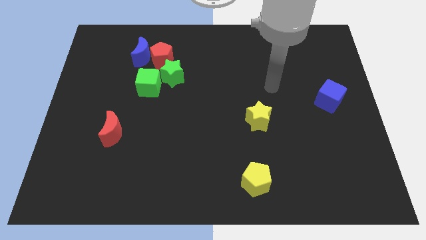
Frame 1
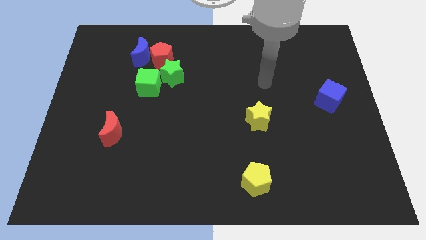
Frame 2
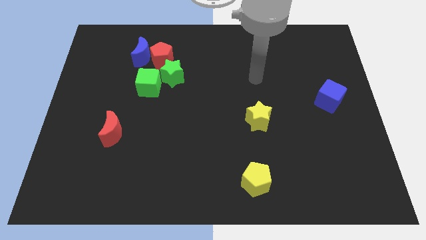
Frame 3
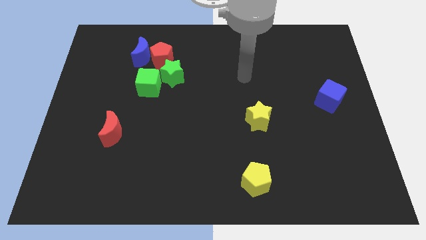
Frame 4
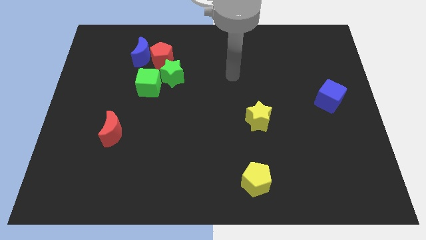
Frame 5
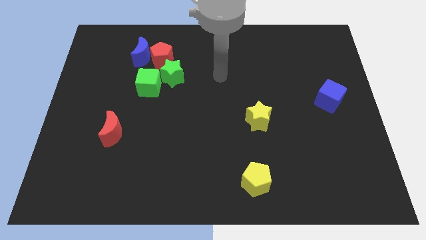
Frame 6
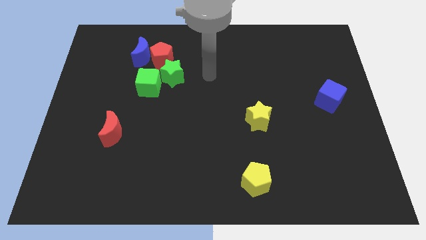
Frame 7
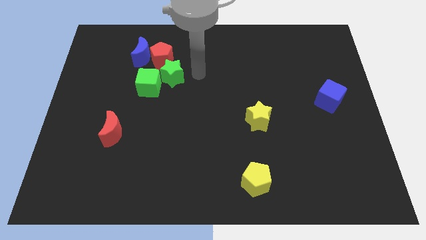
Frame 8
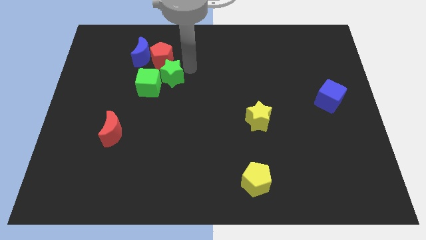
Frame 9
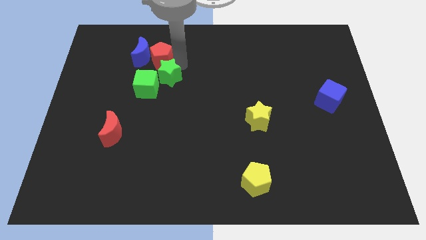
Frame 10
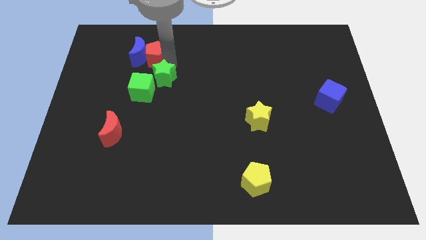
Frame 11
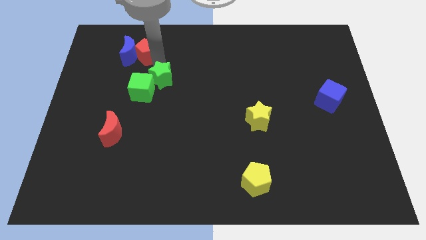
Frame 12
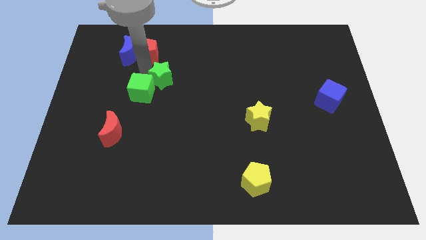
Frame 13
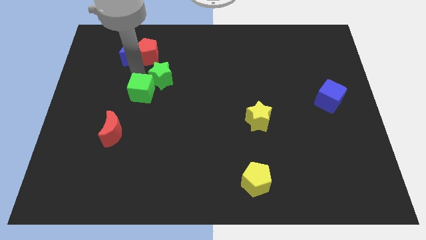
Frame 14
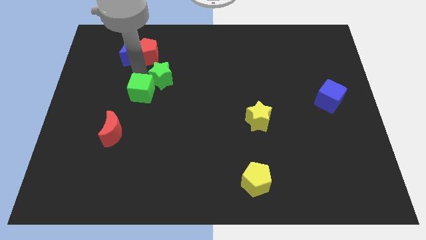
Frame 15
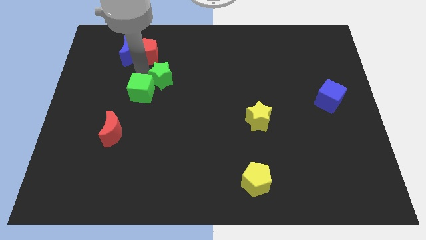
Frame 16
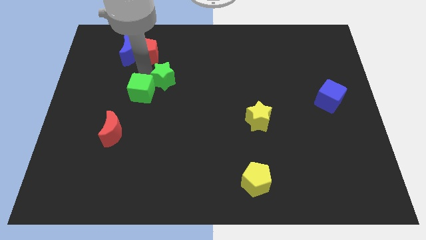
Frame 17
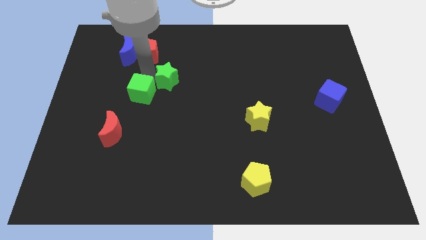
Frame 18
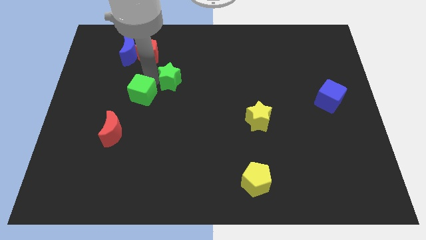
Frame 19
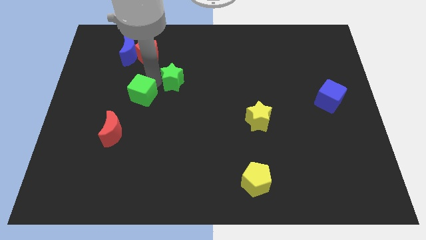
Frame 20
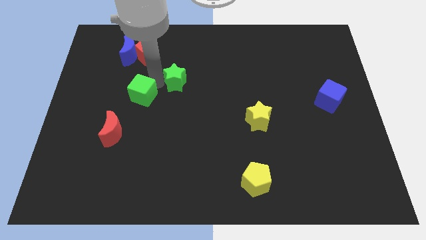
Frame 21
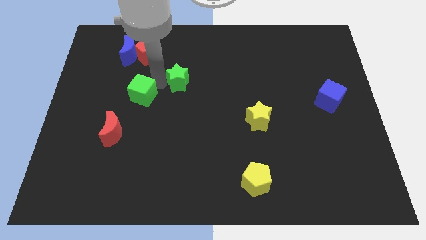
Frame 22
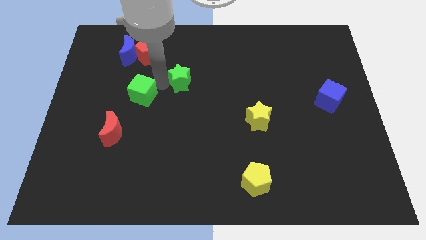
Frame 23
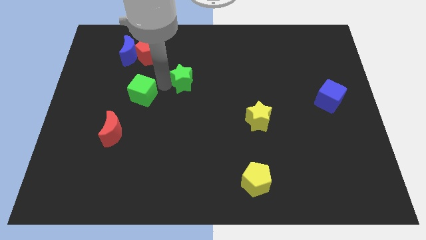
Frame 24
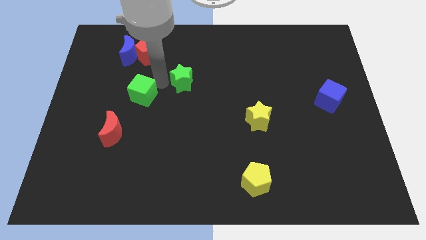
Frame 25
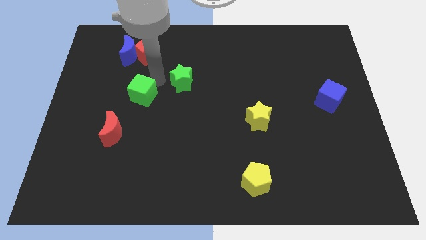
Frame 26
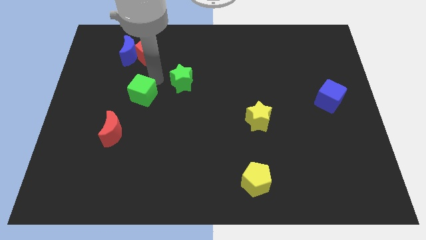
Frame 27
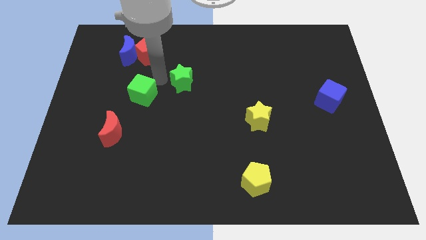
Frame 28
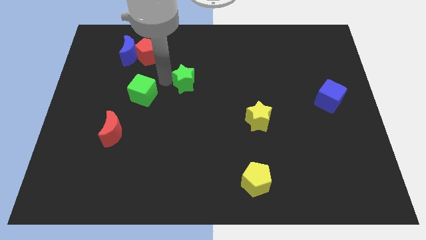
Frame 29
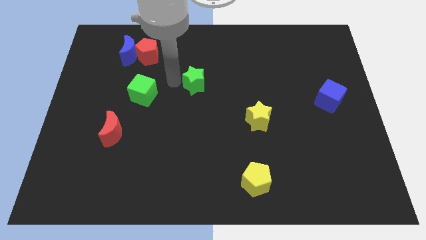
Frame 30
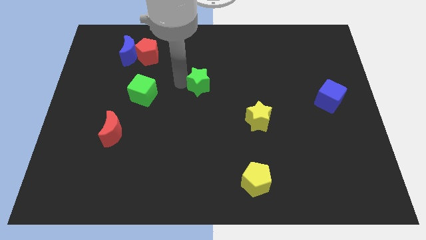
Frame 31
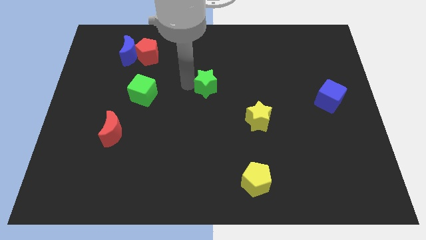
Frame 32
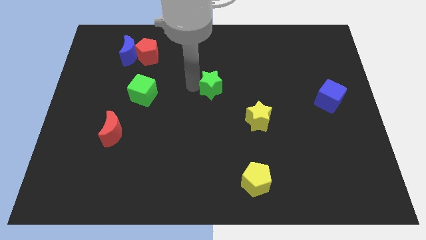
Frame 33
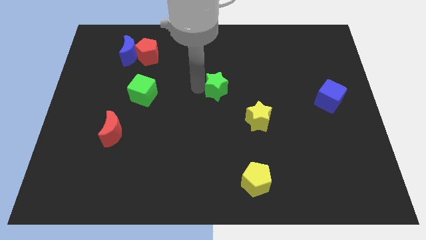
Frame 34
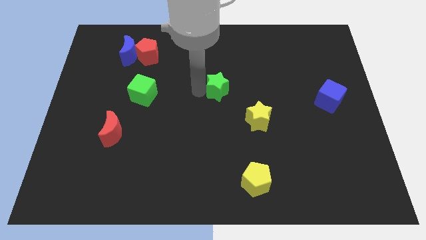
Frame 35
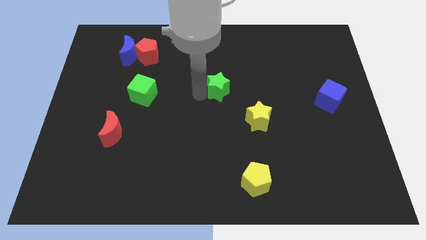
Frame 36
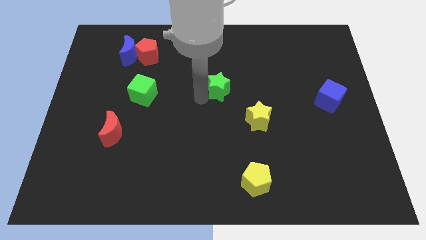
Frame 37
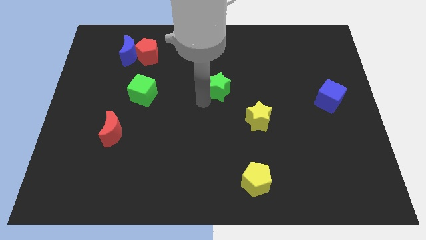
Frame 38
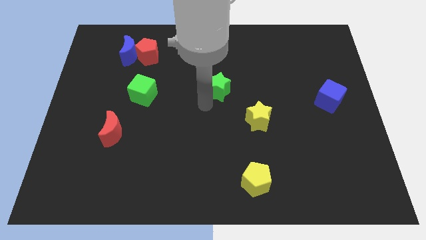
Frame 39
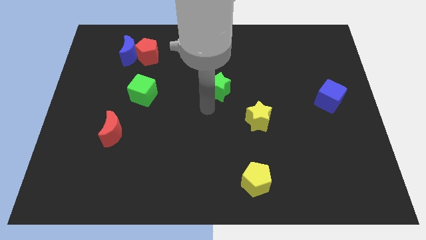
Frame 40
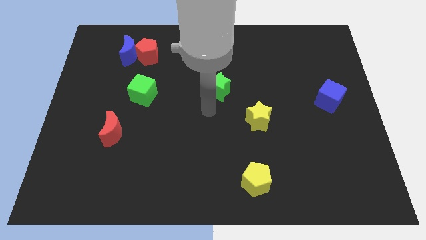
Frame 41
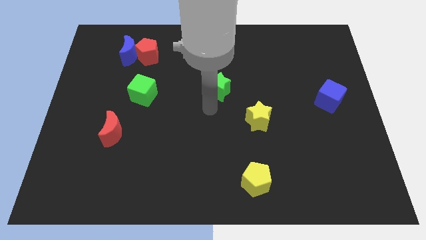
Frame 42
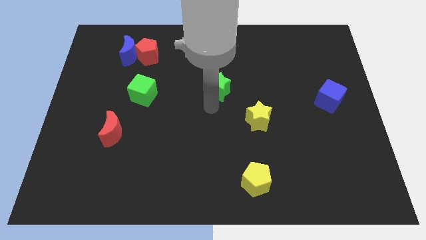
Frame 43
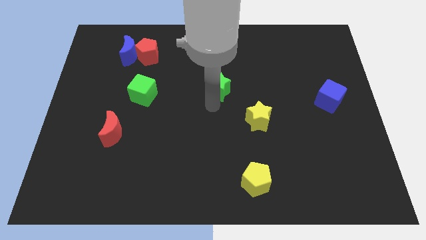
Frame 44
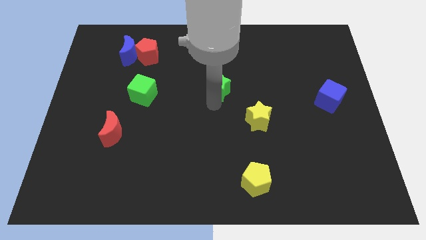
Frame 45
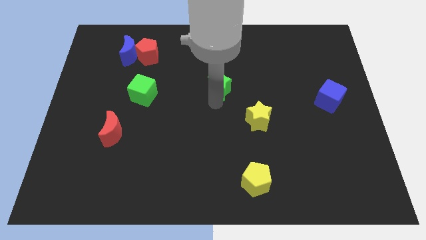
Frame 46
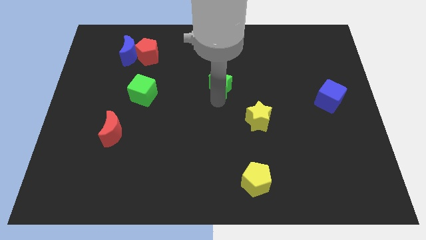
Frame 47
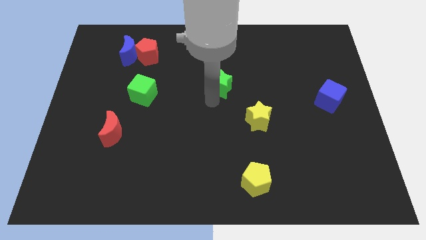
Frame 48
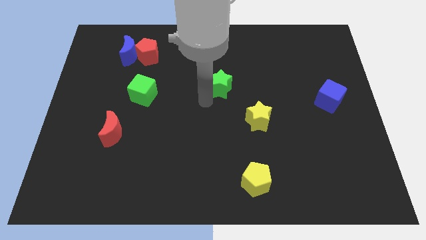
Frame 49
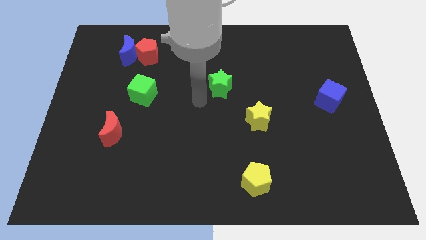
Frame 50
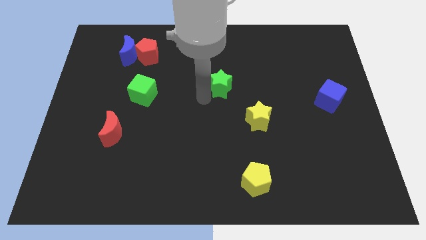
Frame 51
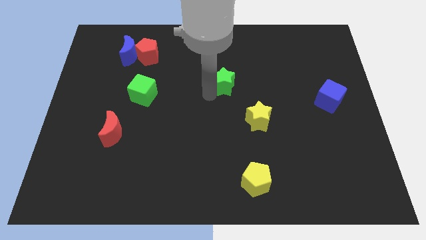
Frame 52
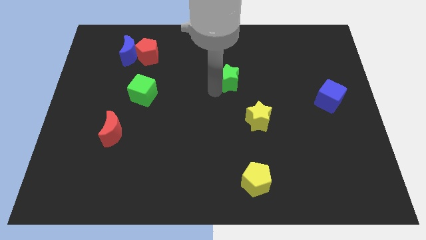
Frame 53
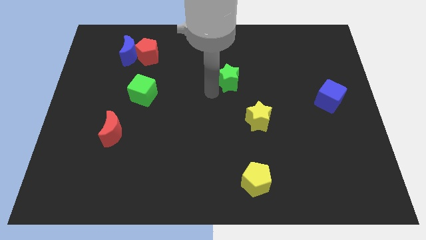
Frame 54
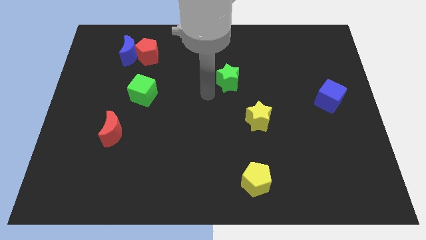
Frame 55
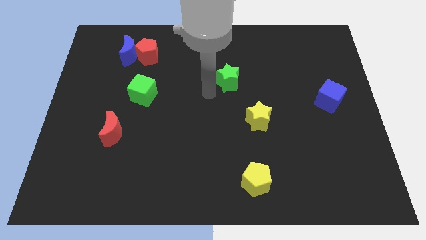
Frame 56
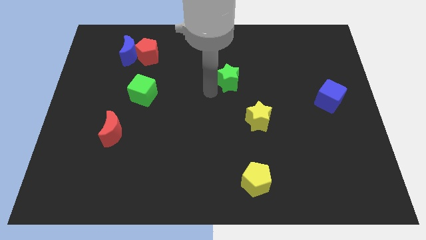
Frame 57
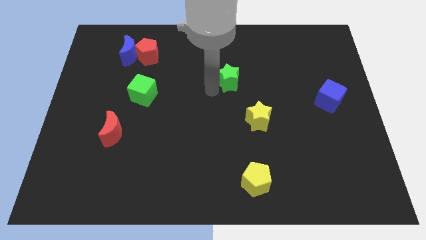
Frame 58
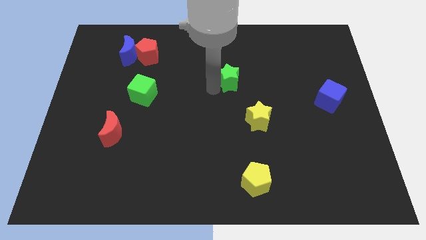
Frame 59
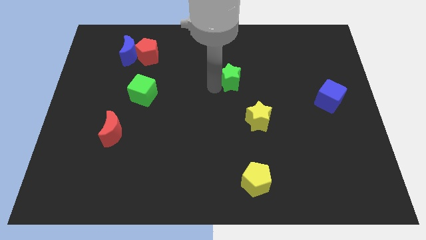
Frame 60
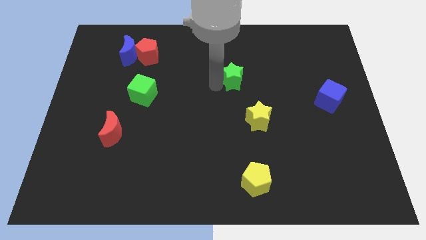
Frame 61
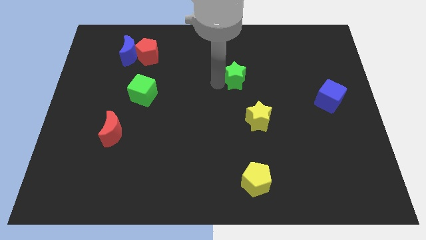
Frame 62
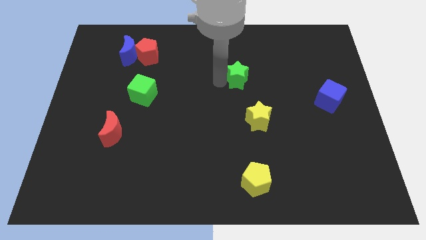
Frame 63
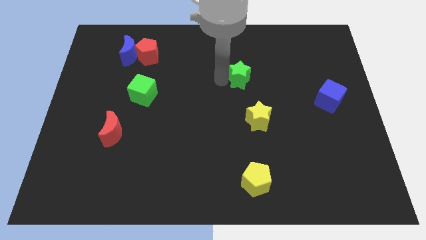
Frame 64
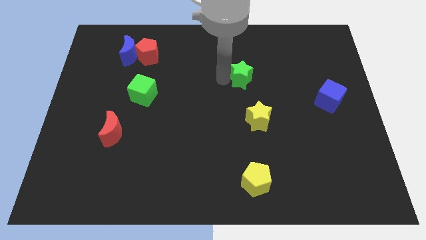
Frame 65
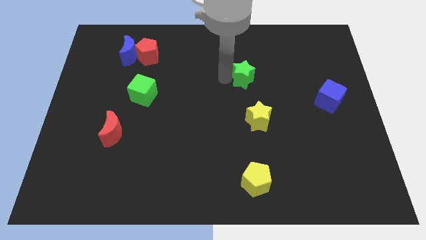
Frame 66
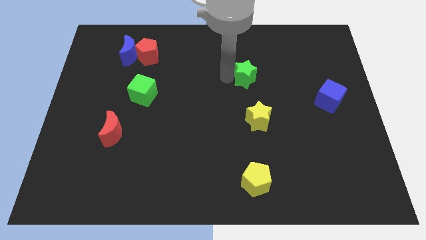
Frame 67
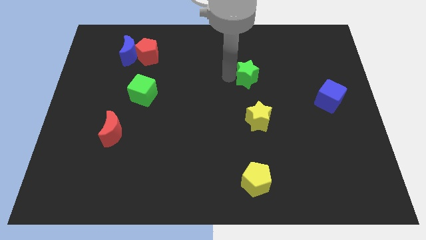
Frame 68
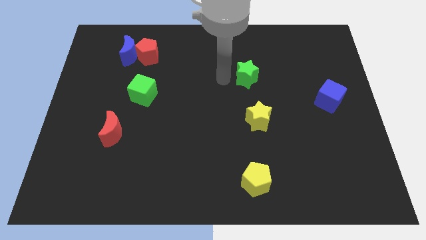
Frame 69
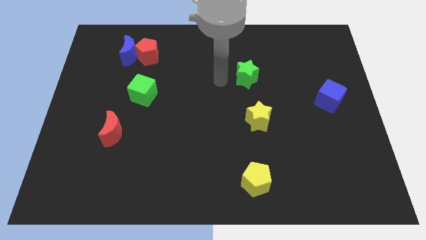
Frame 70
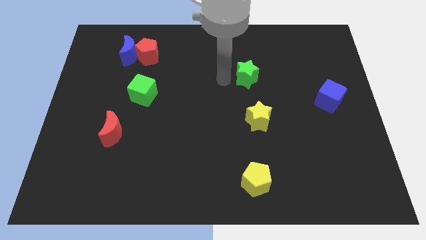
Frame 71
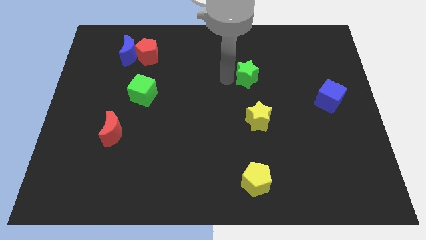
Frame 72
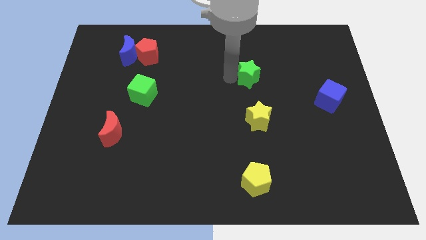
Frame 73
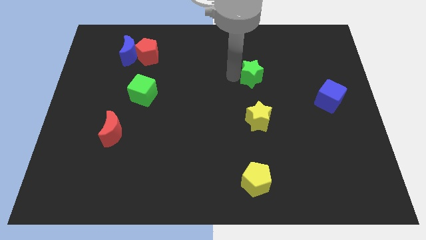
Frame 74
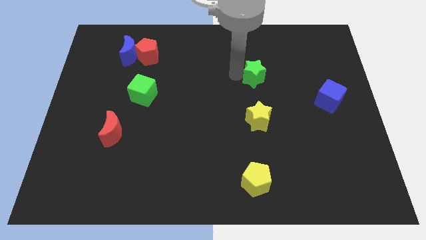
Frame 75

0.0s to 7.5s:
move the green star right

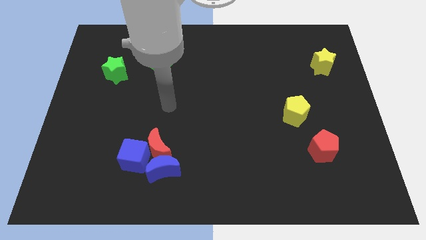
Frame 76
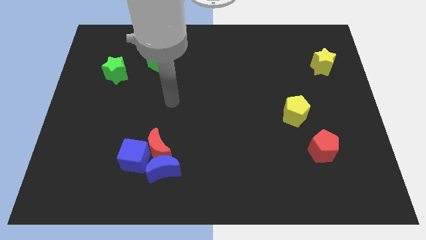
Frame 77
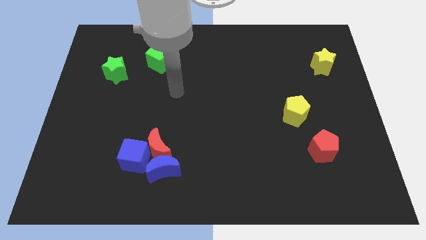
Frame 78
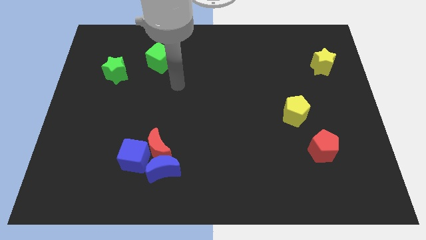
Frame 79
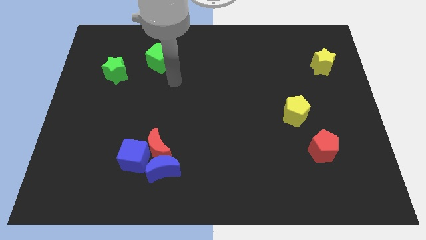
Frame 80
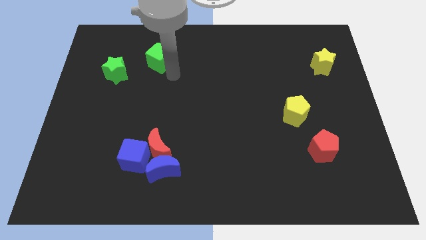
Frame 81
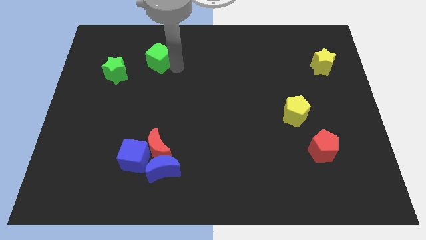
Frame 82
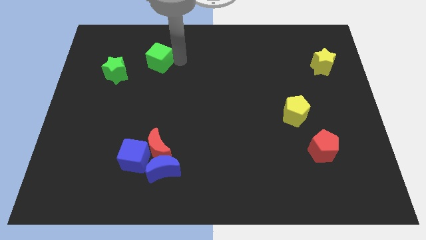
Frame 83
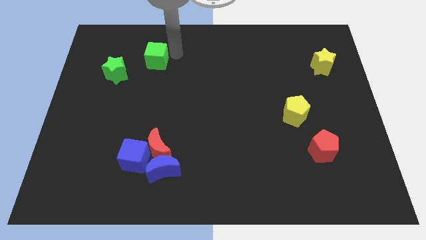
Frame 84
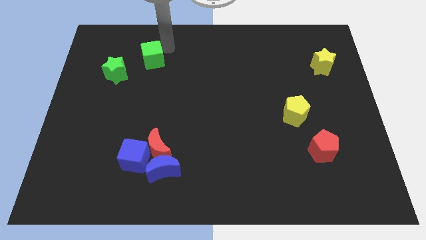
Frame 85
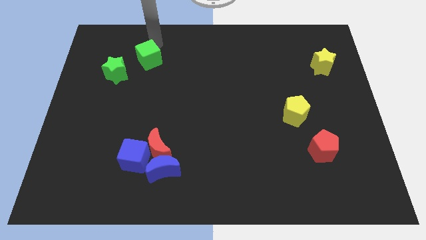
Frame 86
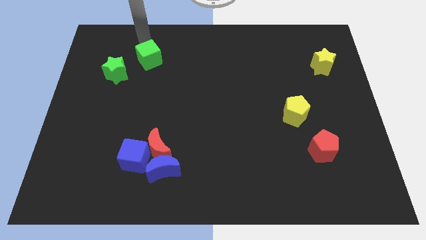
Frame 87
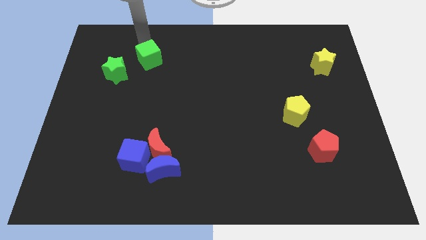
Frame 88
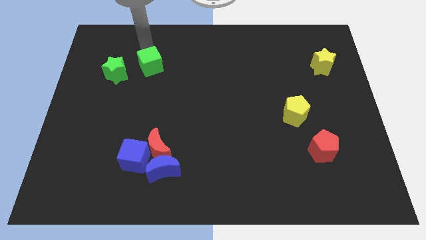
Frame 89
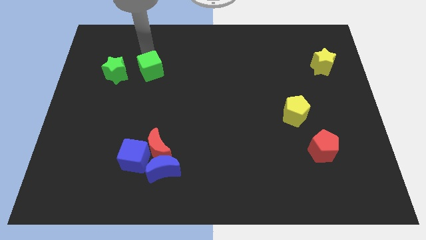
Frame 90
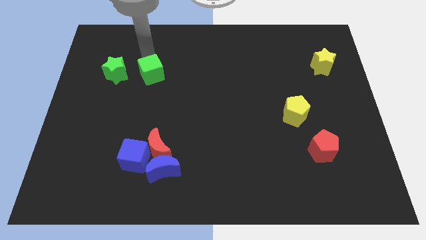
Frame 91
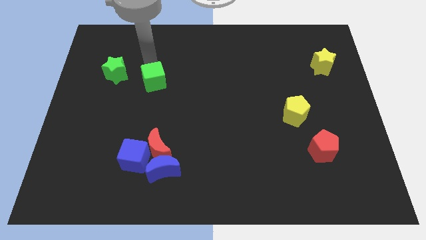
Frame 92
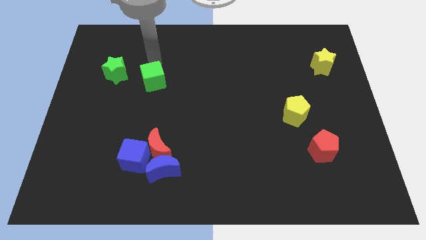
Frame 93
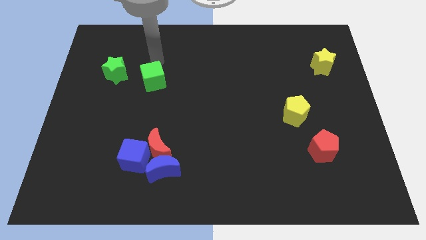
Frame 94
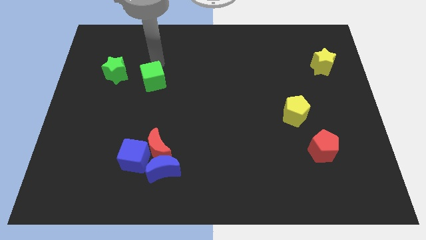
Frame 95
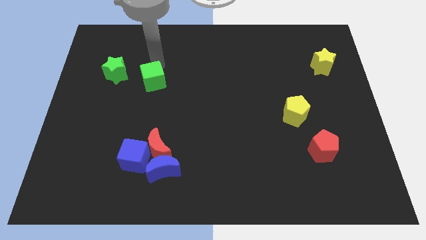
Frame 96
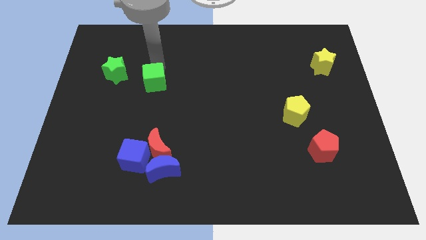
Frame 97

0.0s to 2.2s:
move the green cube downwards a little bit
